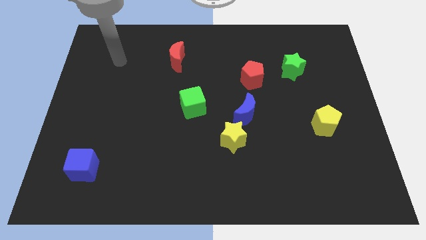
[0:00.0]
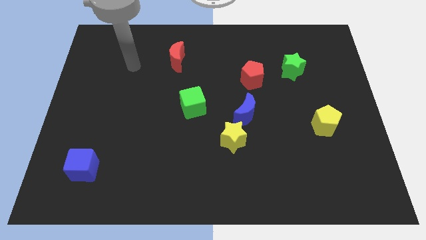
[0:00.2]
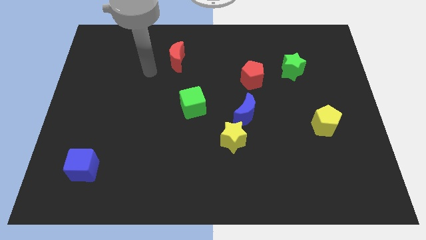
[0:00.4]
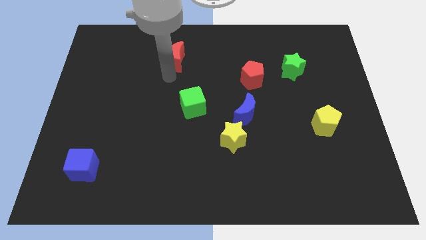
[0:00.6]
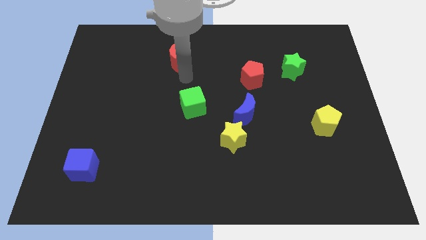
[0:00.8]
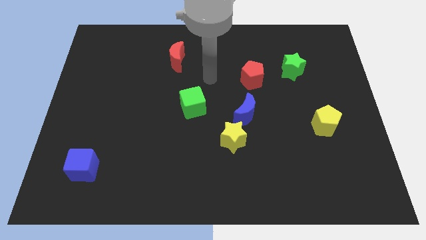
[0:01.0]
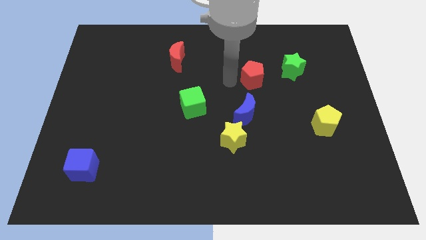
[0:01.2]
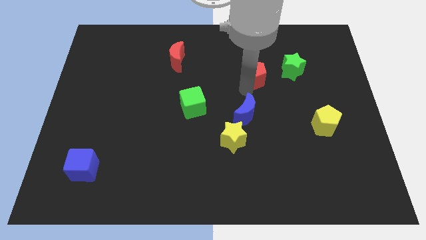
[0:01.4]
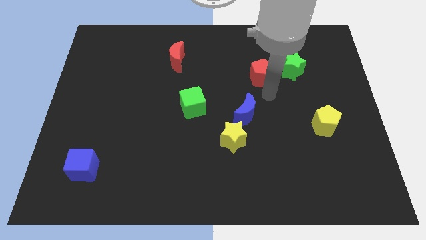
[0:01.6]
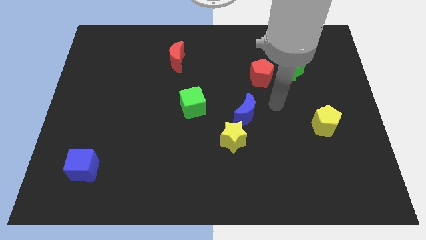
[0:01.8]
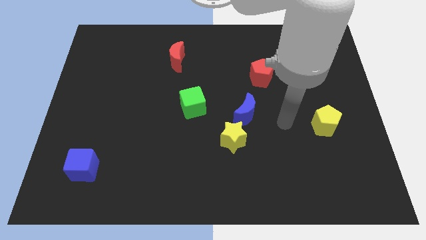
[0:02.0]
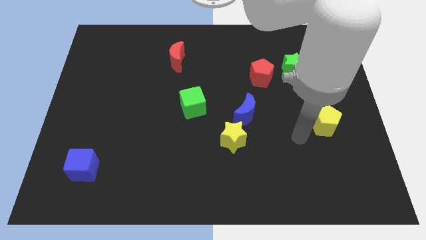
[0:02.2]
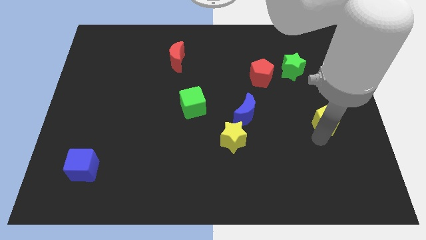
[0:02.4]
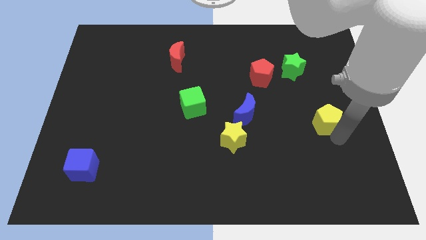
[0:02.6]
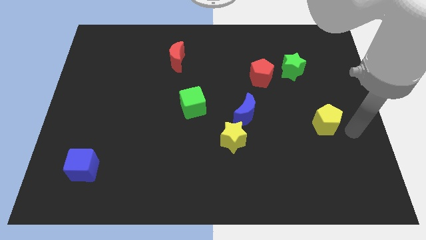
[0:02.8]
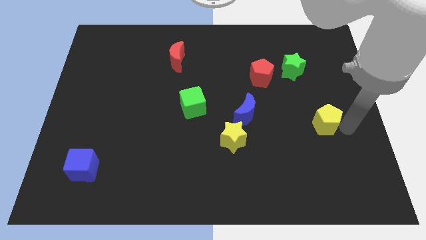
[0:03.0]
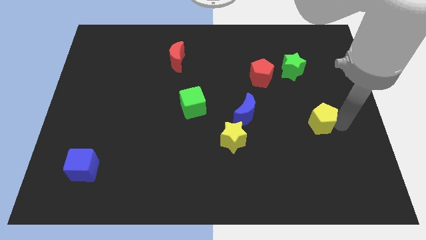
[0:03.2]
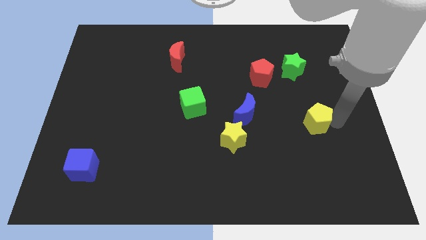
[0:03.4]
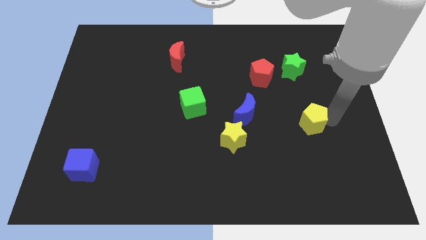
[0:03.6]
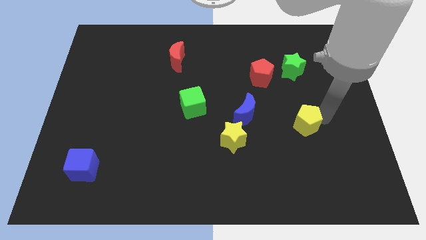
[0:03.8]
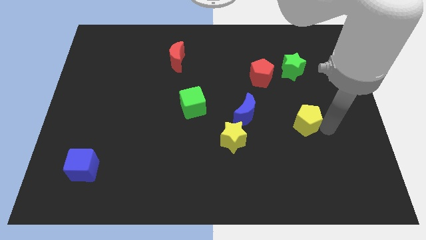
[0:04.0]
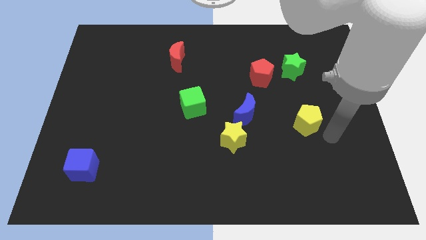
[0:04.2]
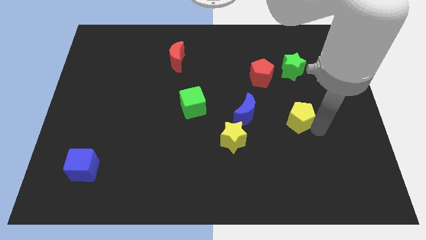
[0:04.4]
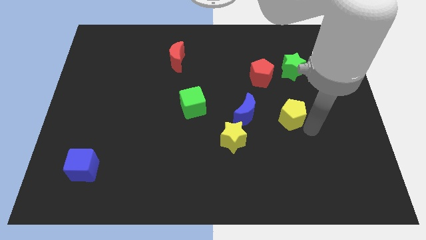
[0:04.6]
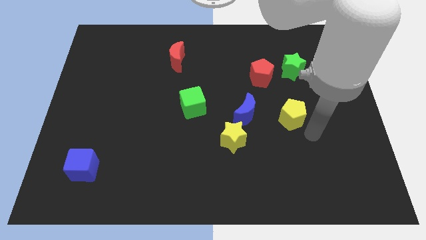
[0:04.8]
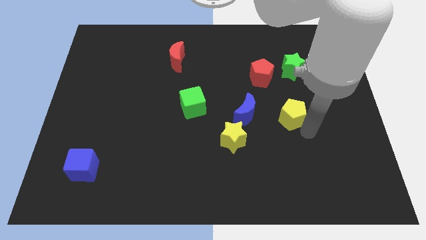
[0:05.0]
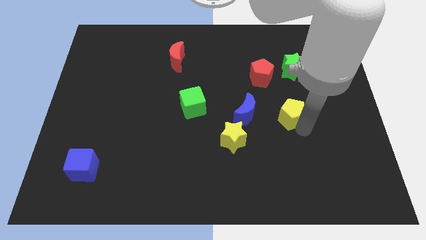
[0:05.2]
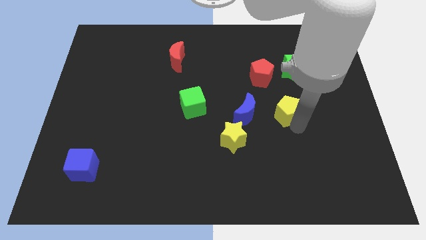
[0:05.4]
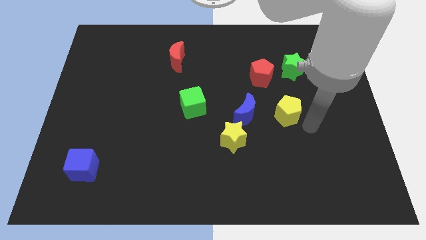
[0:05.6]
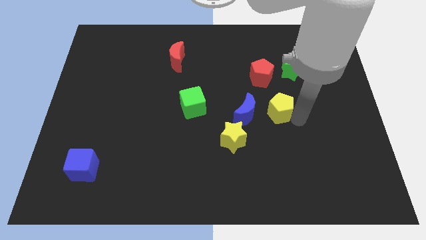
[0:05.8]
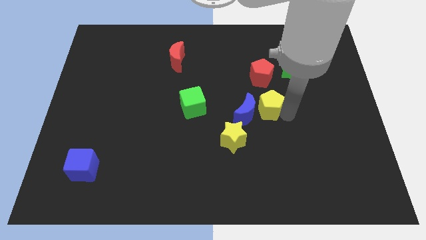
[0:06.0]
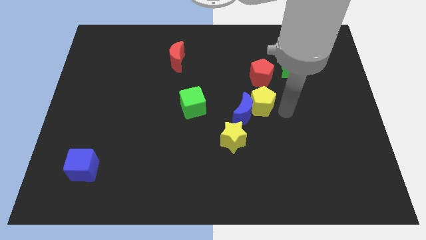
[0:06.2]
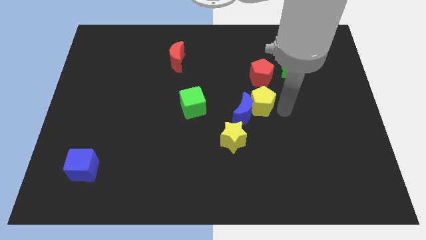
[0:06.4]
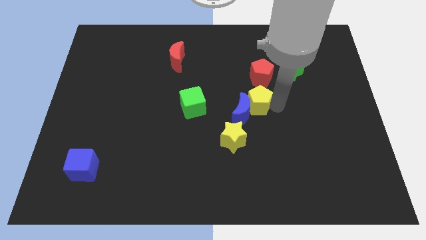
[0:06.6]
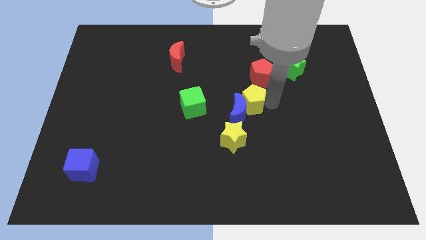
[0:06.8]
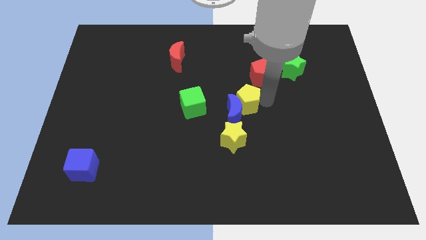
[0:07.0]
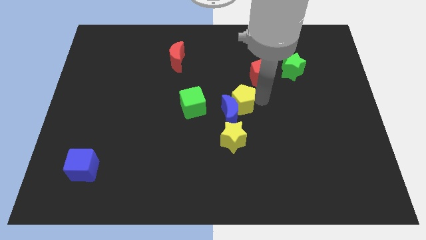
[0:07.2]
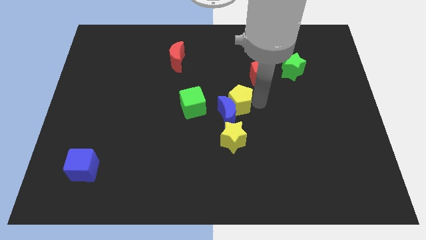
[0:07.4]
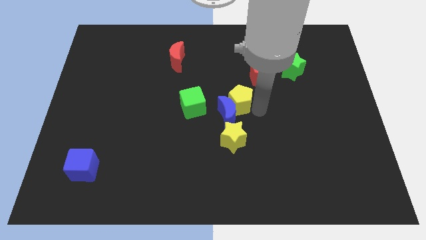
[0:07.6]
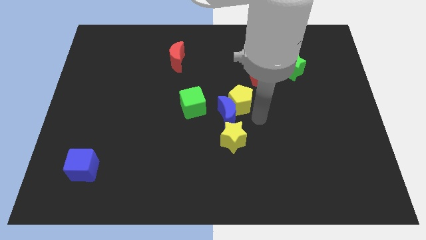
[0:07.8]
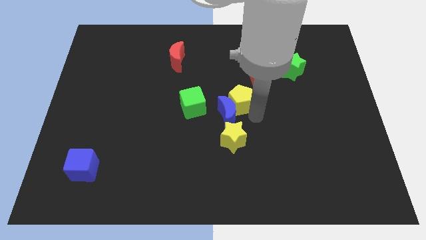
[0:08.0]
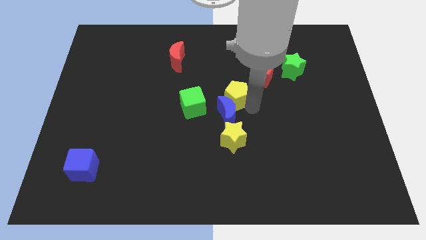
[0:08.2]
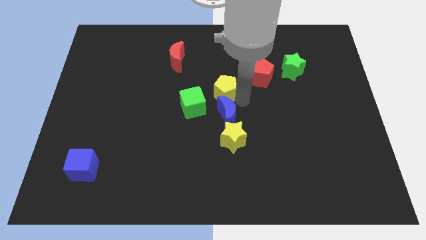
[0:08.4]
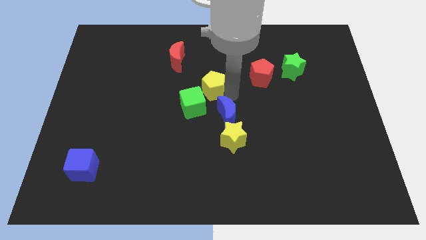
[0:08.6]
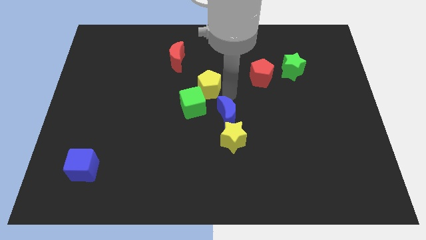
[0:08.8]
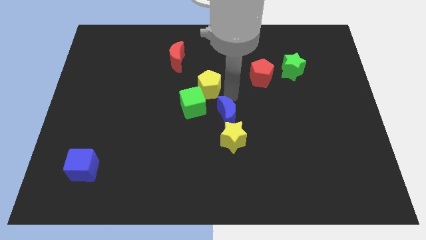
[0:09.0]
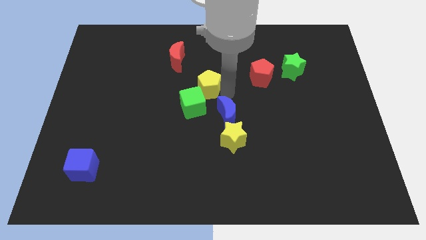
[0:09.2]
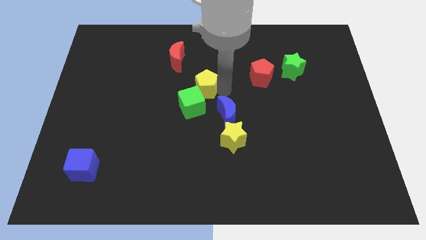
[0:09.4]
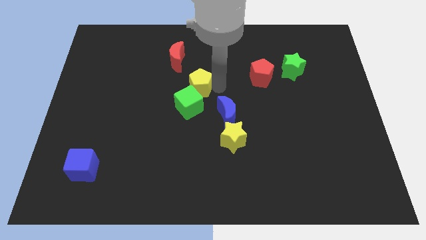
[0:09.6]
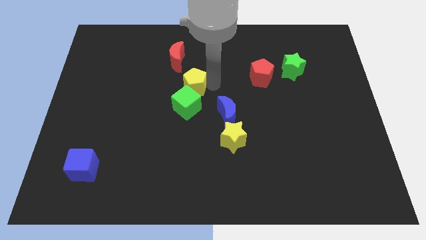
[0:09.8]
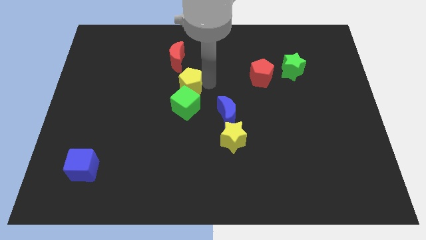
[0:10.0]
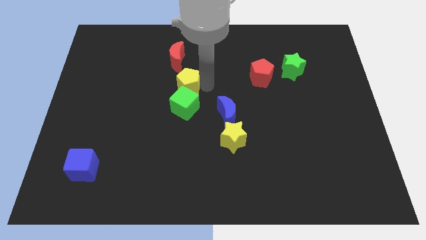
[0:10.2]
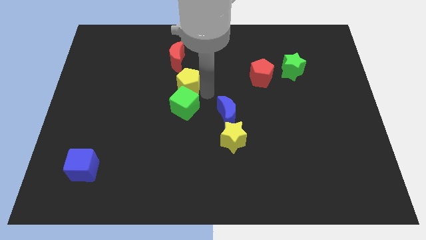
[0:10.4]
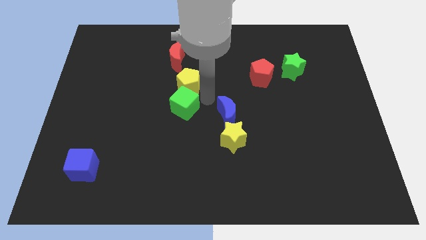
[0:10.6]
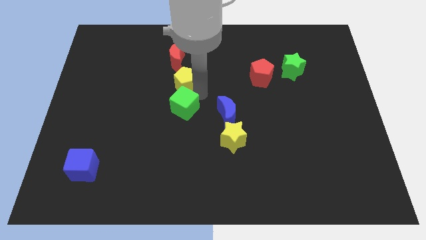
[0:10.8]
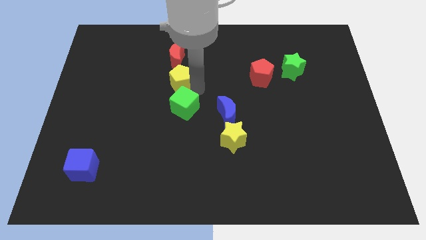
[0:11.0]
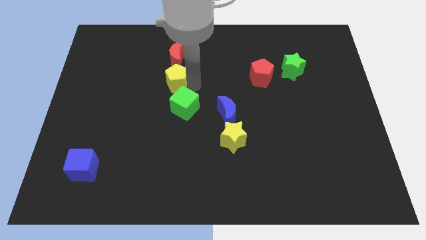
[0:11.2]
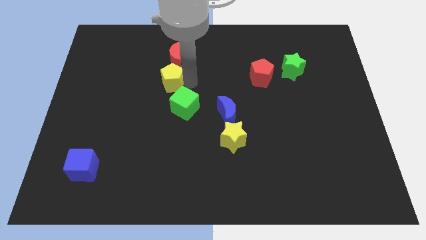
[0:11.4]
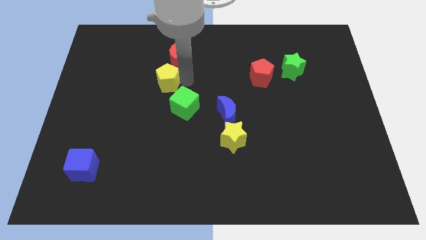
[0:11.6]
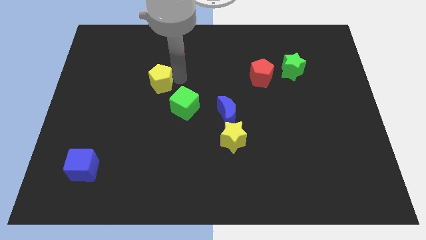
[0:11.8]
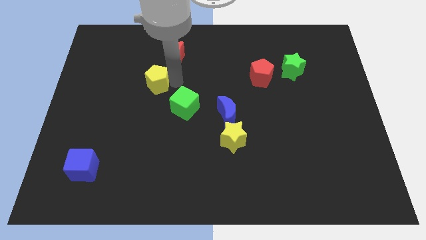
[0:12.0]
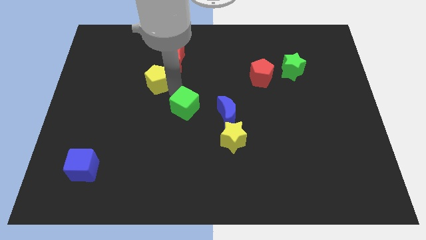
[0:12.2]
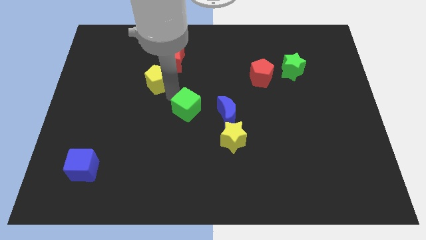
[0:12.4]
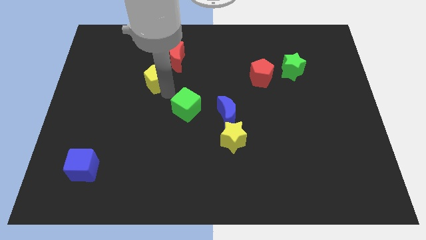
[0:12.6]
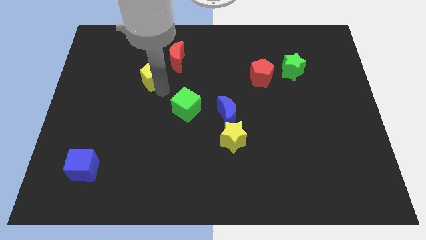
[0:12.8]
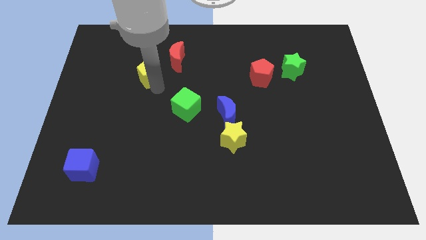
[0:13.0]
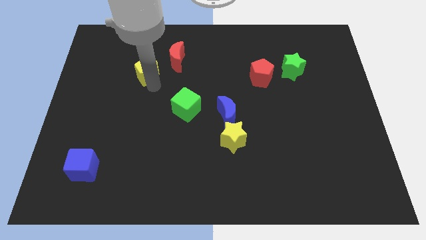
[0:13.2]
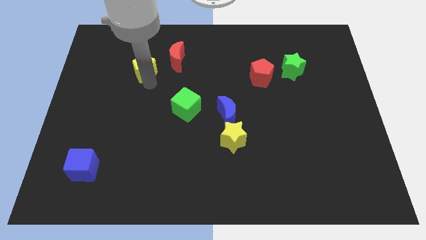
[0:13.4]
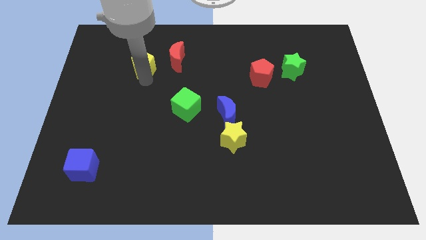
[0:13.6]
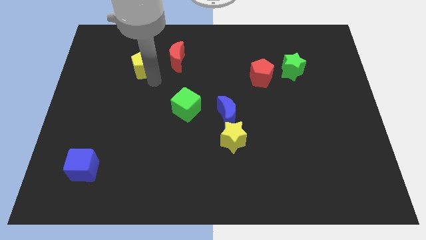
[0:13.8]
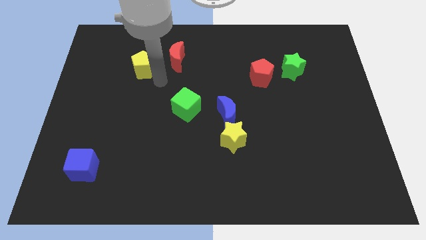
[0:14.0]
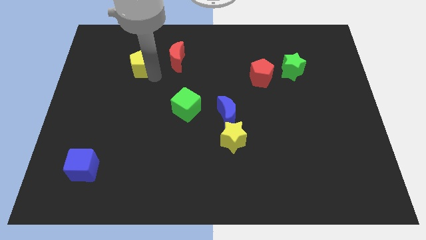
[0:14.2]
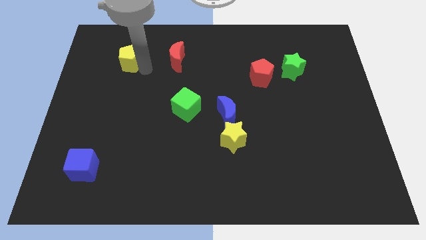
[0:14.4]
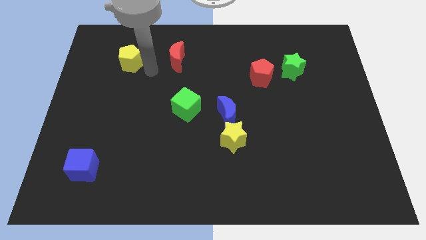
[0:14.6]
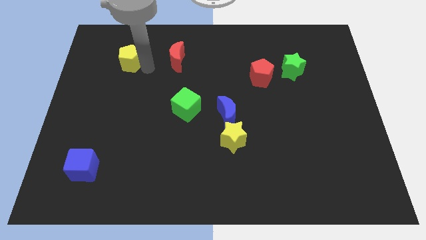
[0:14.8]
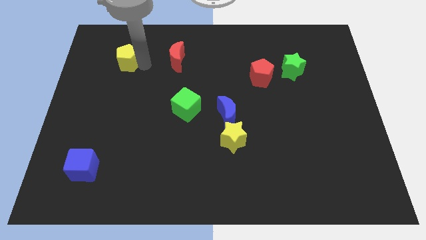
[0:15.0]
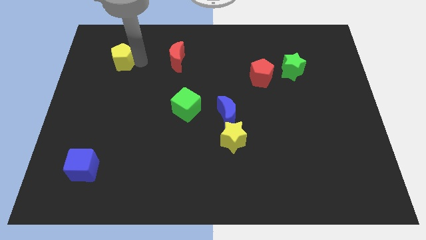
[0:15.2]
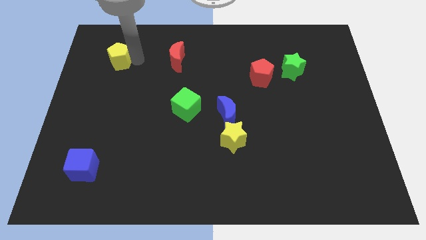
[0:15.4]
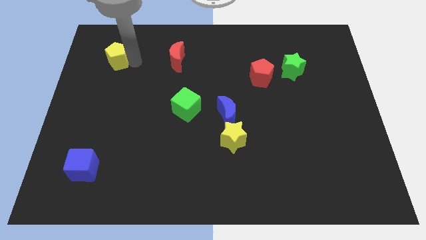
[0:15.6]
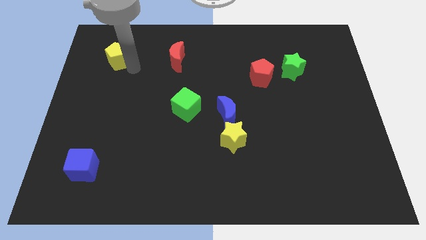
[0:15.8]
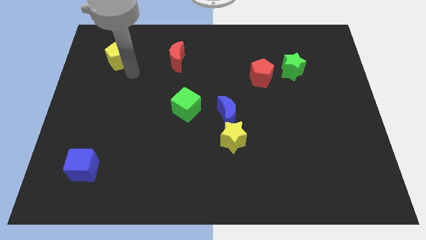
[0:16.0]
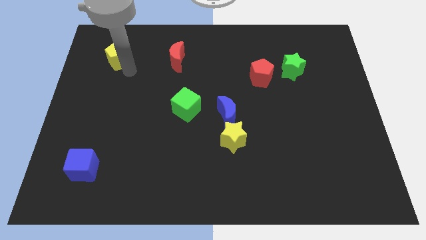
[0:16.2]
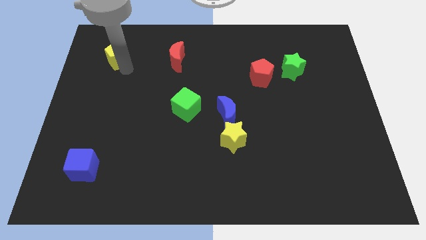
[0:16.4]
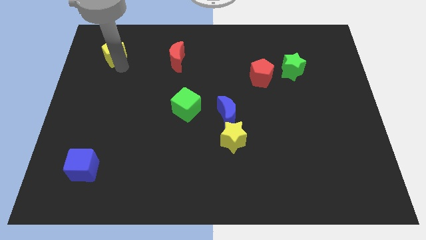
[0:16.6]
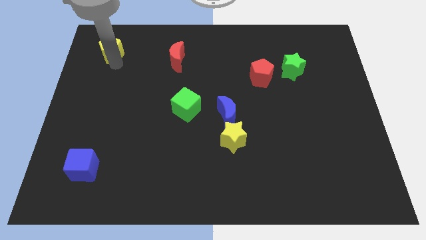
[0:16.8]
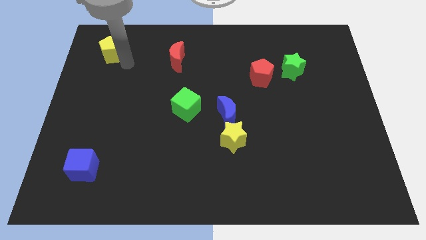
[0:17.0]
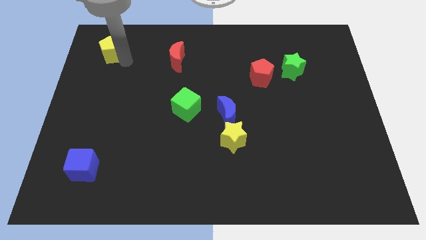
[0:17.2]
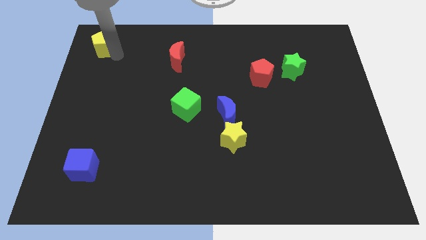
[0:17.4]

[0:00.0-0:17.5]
slide the yellow pentagon to the top left corner
